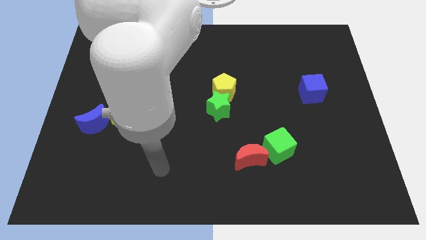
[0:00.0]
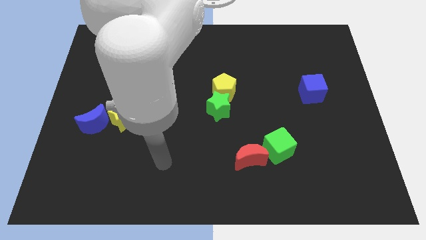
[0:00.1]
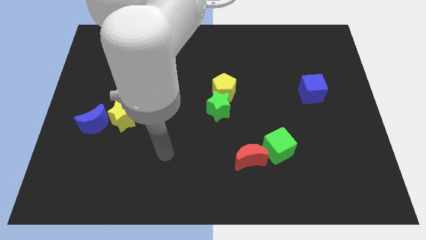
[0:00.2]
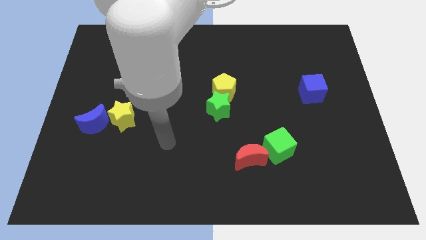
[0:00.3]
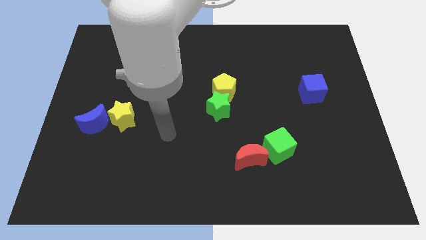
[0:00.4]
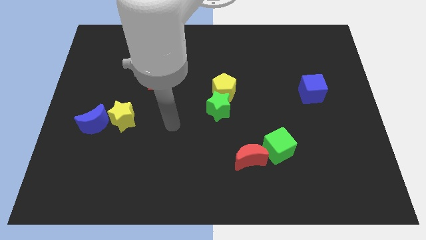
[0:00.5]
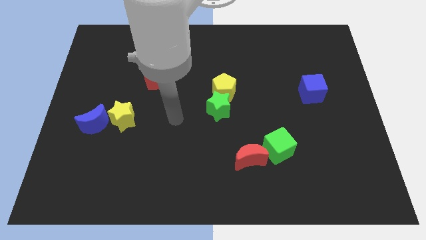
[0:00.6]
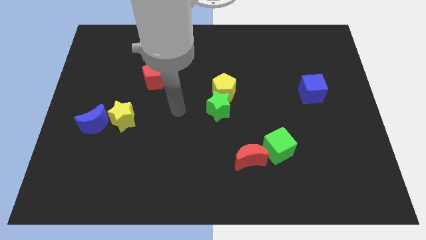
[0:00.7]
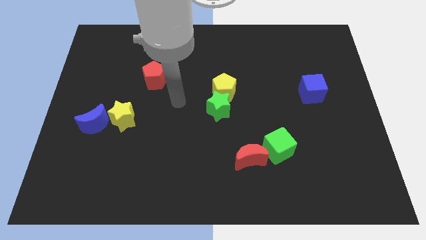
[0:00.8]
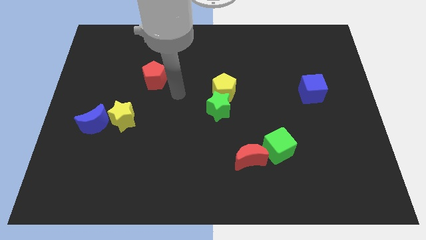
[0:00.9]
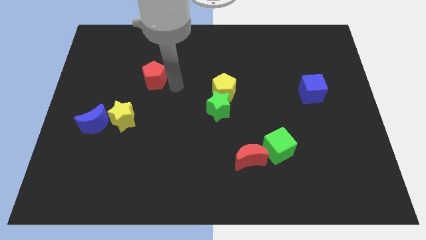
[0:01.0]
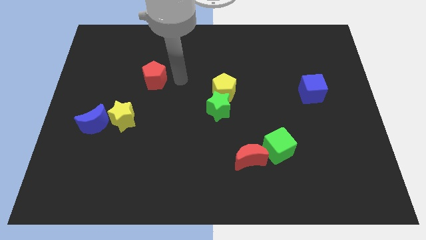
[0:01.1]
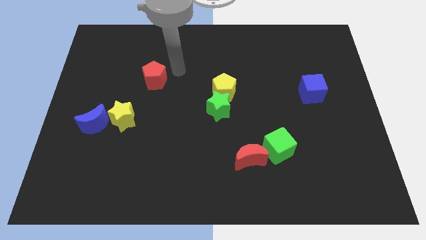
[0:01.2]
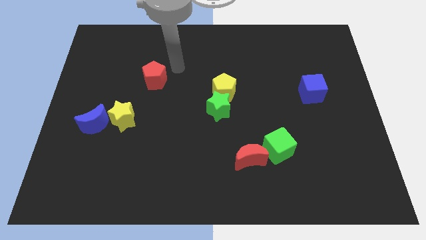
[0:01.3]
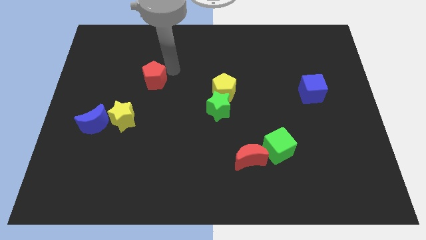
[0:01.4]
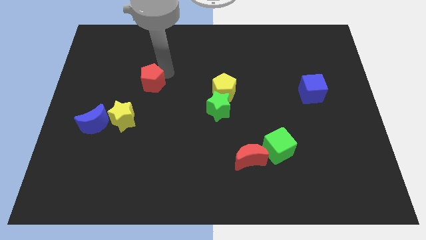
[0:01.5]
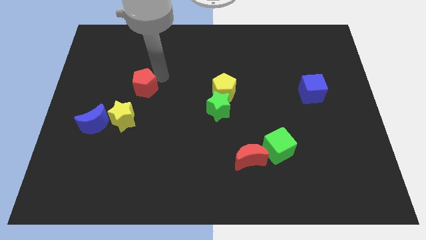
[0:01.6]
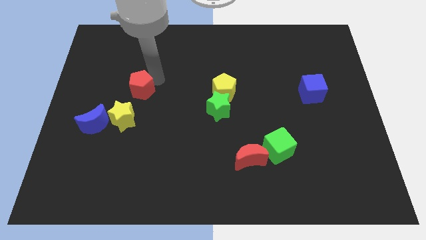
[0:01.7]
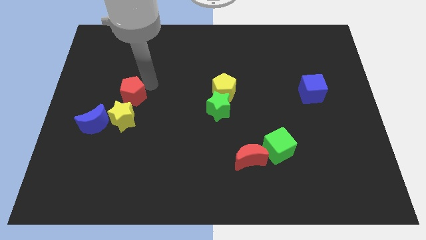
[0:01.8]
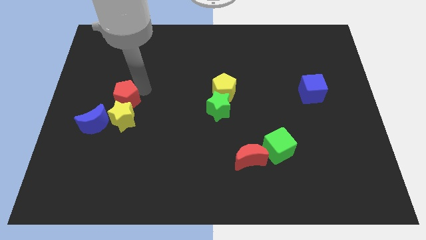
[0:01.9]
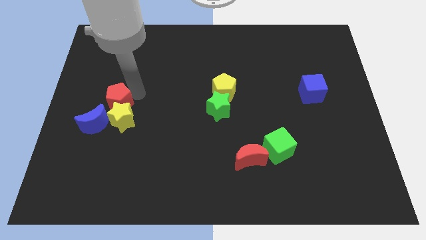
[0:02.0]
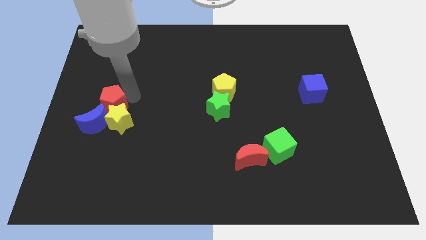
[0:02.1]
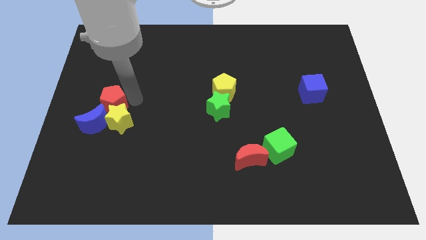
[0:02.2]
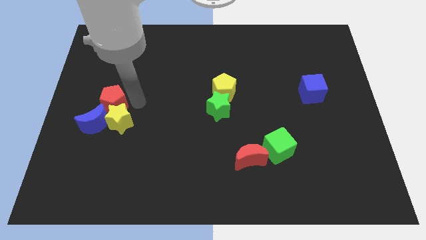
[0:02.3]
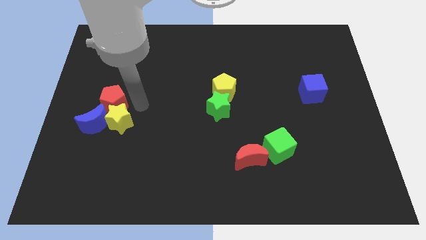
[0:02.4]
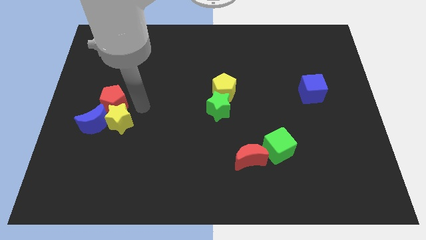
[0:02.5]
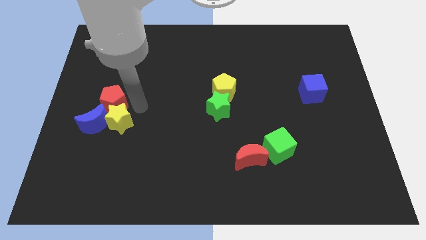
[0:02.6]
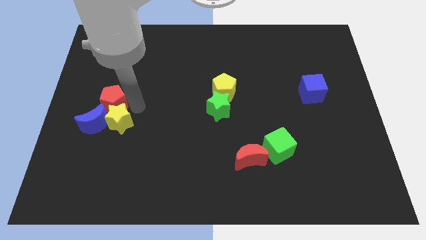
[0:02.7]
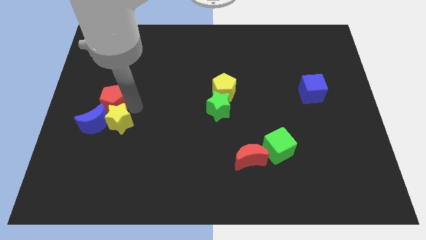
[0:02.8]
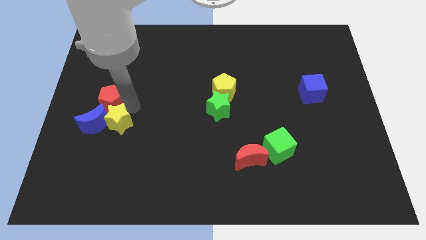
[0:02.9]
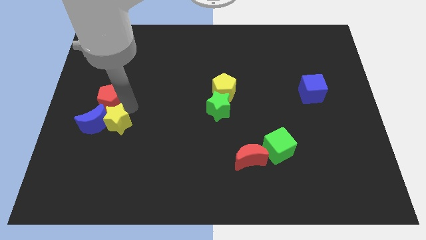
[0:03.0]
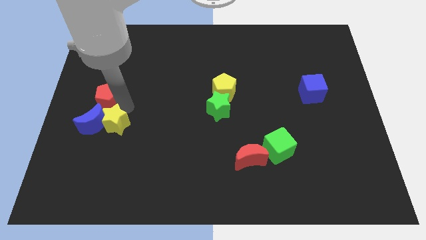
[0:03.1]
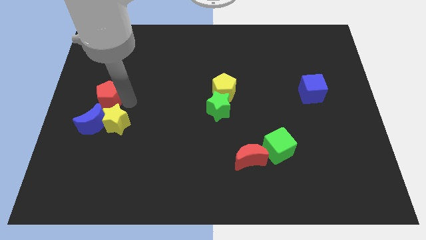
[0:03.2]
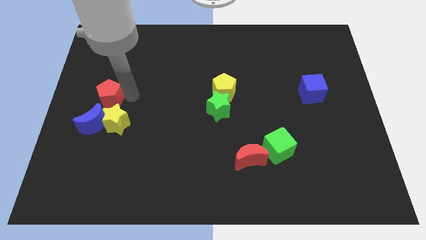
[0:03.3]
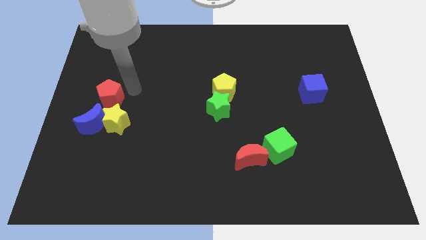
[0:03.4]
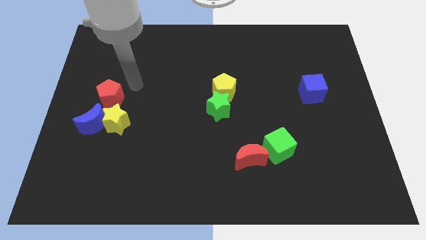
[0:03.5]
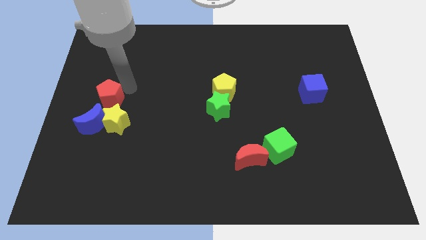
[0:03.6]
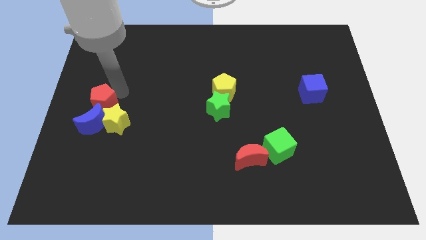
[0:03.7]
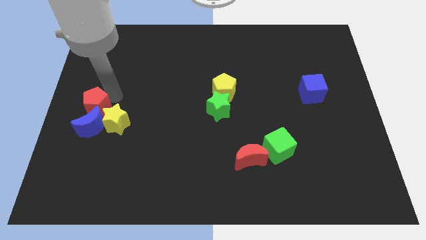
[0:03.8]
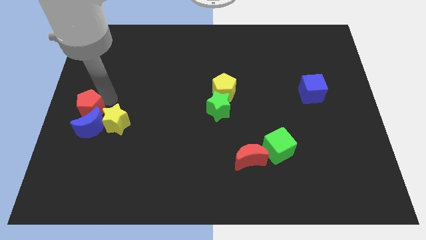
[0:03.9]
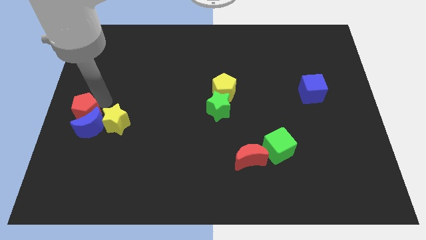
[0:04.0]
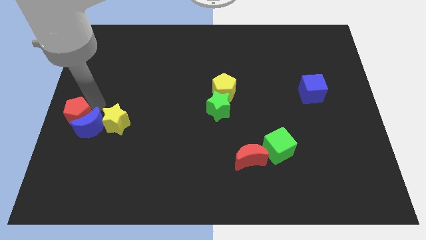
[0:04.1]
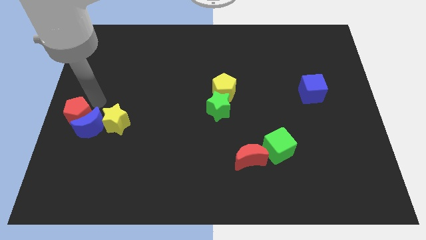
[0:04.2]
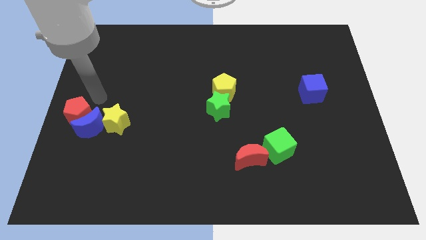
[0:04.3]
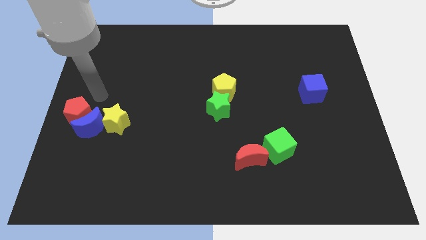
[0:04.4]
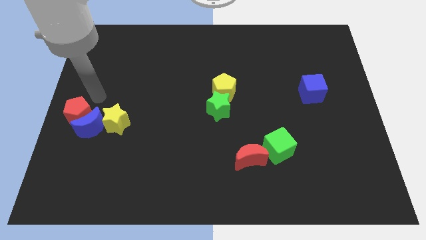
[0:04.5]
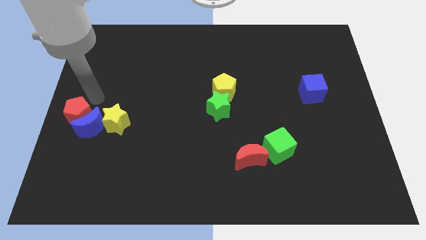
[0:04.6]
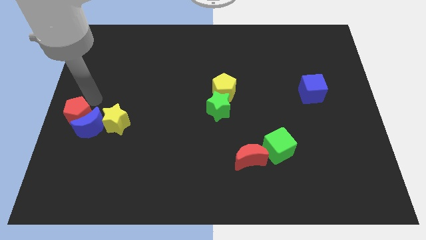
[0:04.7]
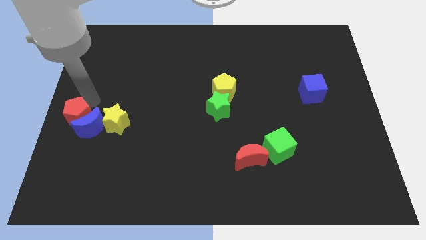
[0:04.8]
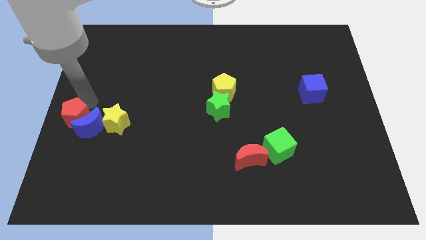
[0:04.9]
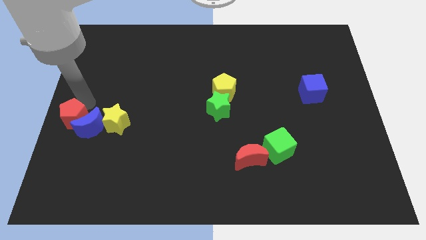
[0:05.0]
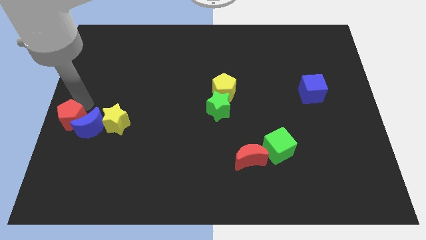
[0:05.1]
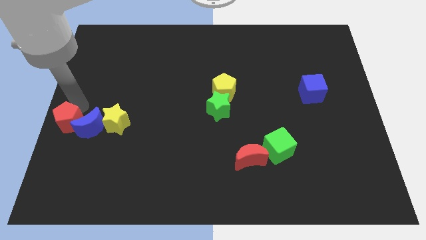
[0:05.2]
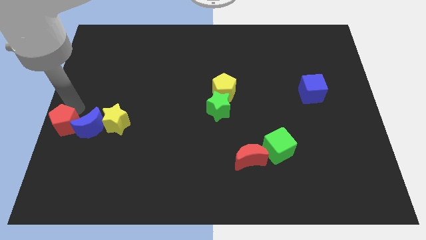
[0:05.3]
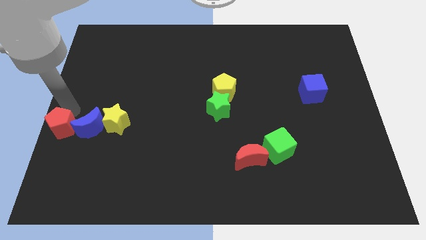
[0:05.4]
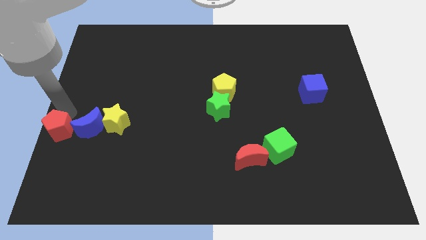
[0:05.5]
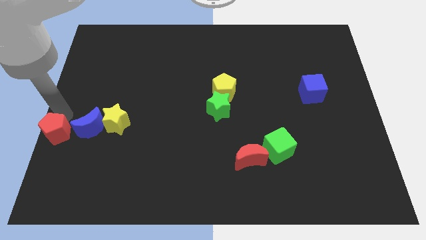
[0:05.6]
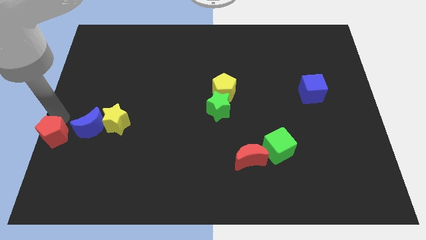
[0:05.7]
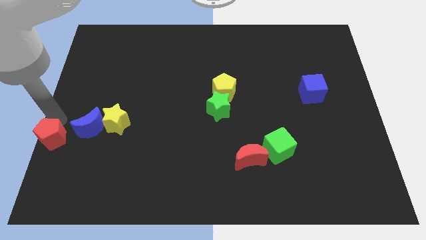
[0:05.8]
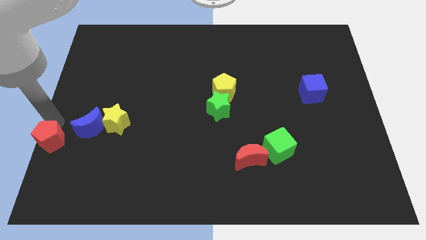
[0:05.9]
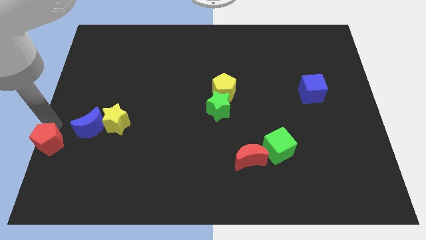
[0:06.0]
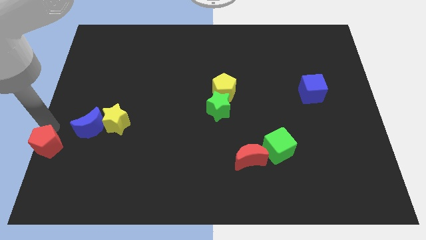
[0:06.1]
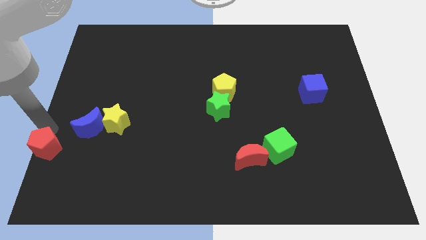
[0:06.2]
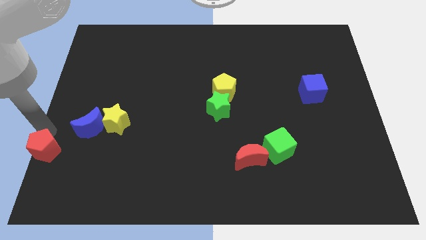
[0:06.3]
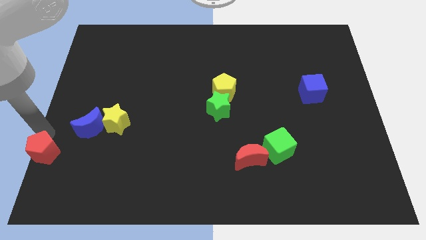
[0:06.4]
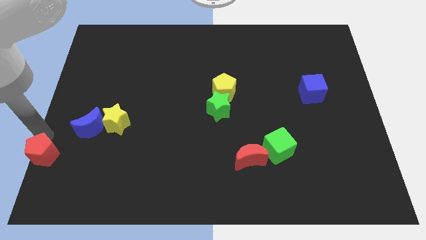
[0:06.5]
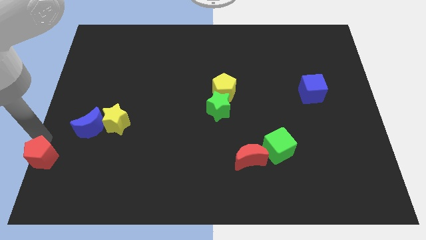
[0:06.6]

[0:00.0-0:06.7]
push the red pentagon to the bottom left of the board
